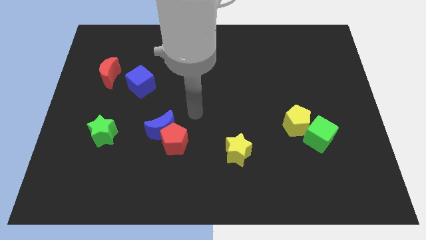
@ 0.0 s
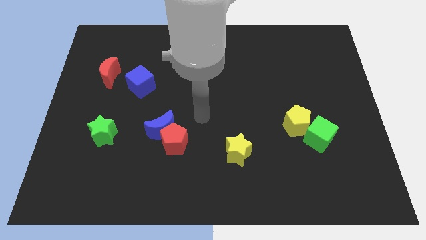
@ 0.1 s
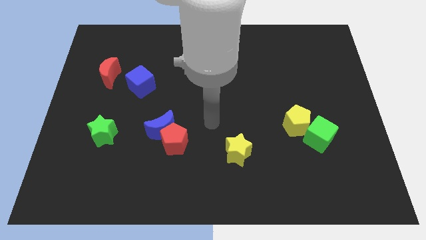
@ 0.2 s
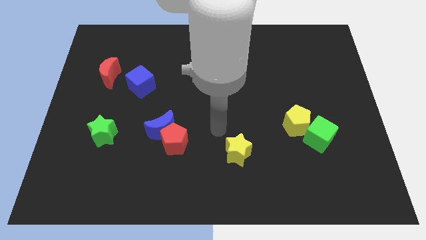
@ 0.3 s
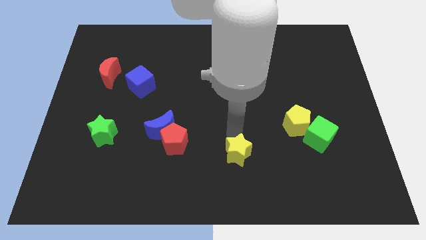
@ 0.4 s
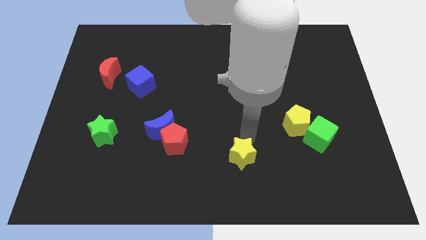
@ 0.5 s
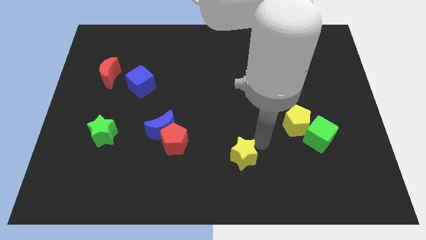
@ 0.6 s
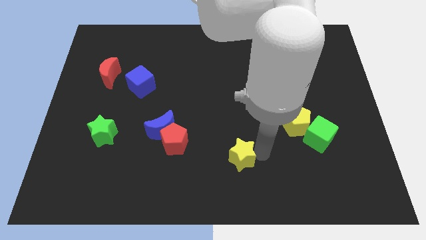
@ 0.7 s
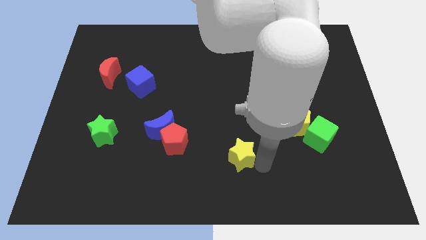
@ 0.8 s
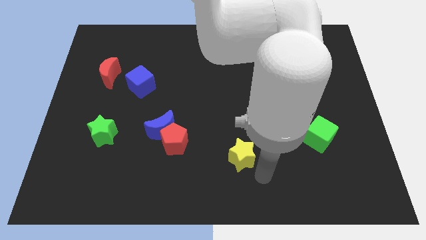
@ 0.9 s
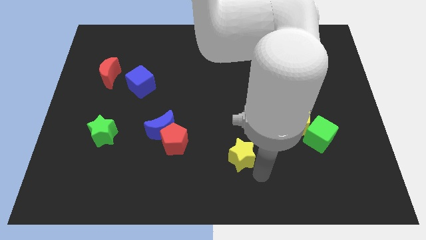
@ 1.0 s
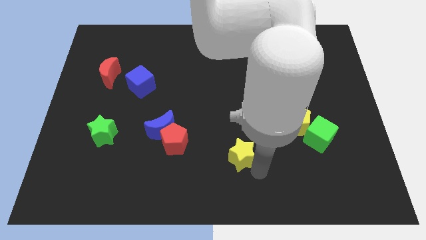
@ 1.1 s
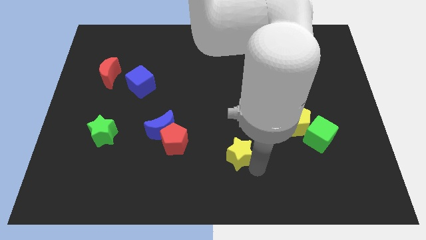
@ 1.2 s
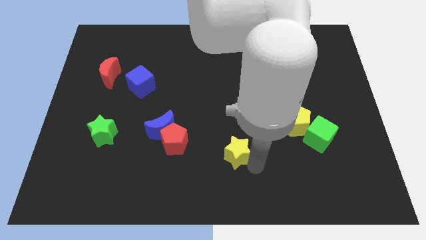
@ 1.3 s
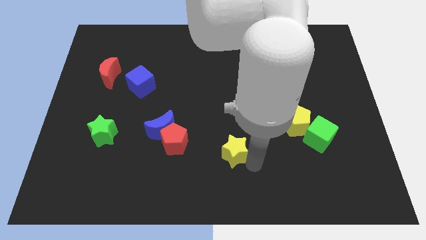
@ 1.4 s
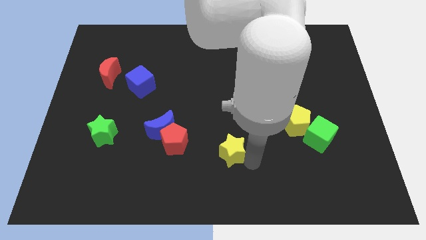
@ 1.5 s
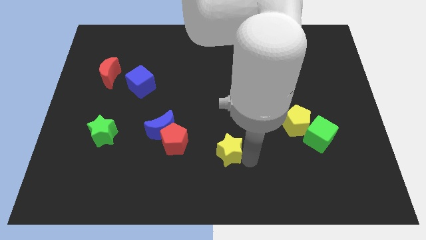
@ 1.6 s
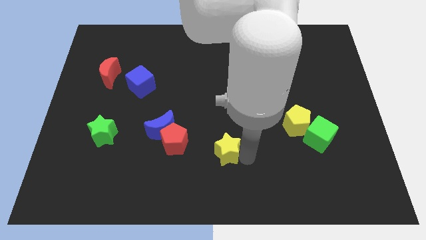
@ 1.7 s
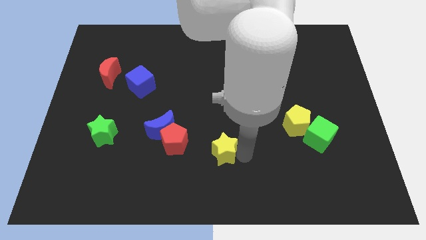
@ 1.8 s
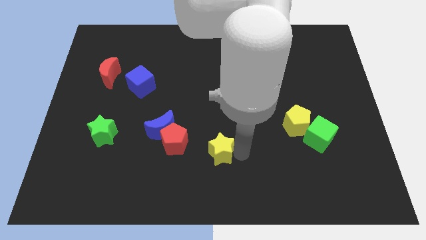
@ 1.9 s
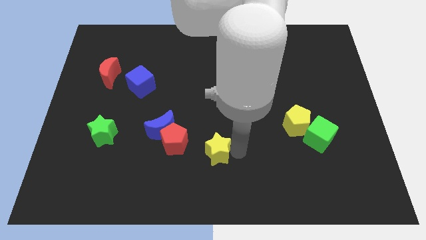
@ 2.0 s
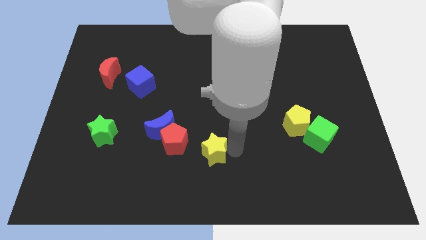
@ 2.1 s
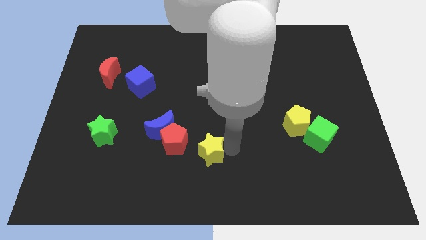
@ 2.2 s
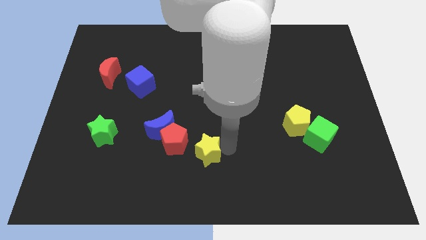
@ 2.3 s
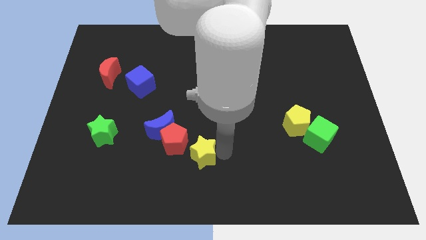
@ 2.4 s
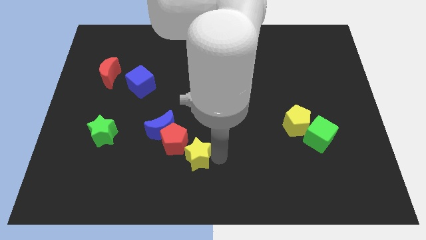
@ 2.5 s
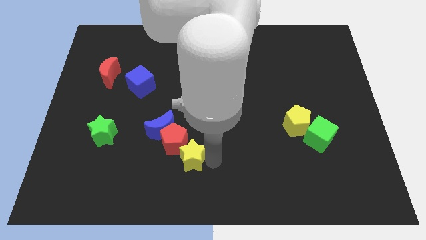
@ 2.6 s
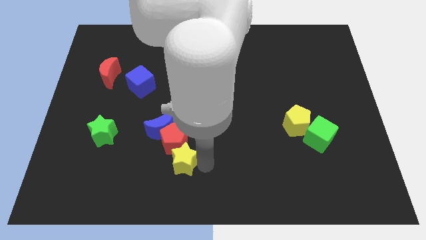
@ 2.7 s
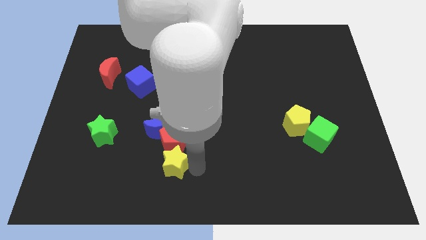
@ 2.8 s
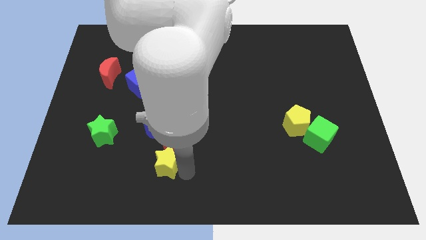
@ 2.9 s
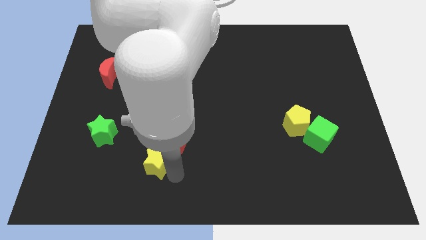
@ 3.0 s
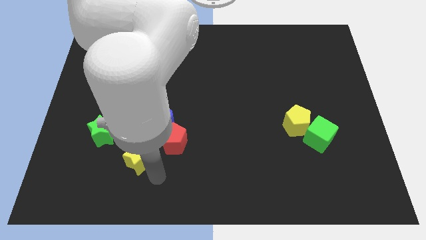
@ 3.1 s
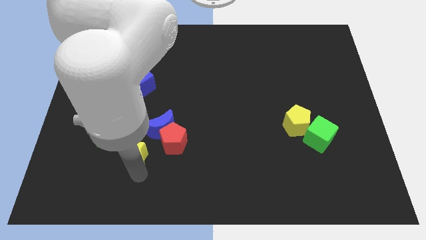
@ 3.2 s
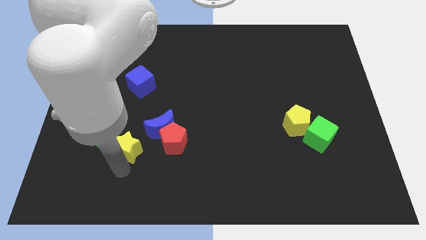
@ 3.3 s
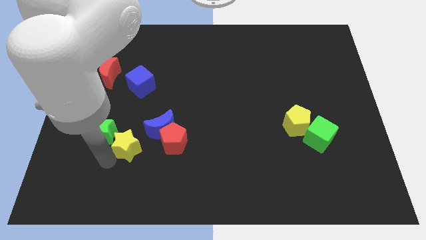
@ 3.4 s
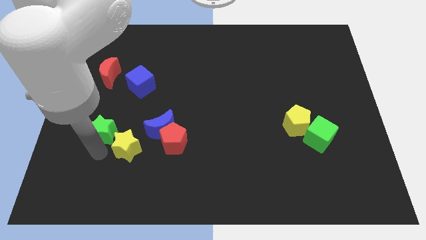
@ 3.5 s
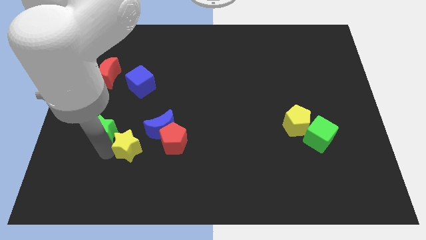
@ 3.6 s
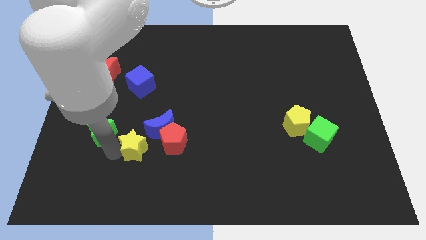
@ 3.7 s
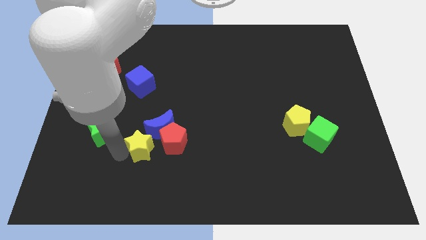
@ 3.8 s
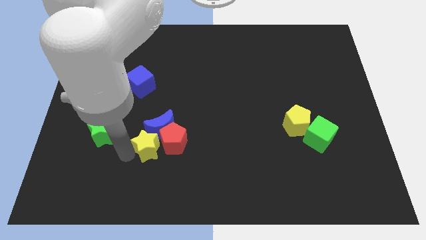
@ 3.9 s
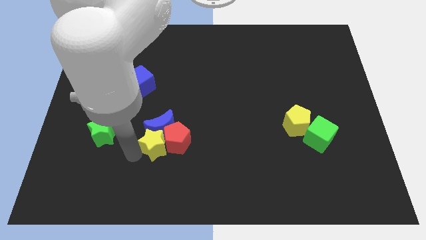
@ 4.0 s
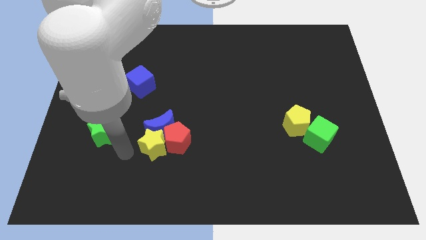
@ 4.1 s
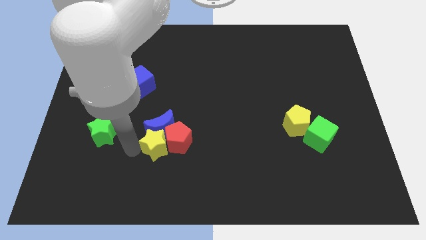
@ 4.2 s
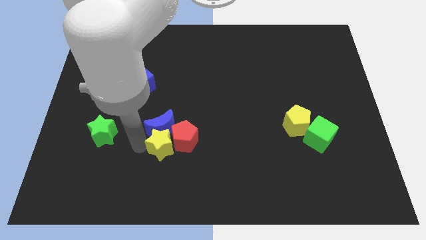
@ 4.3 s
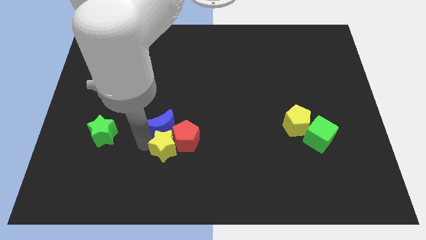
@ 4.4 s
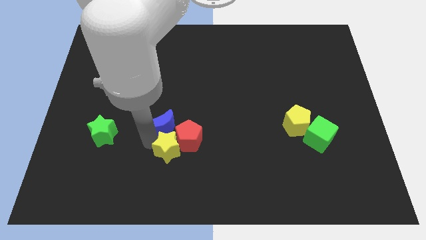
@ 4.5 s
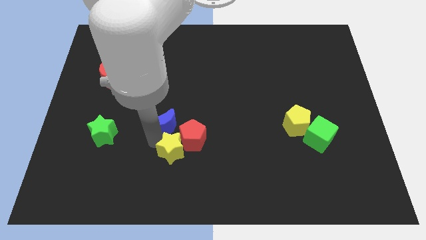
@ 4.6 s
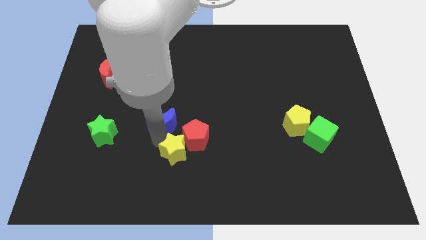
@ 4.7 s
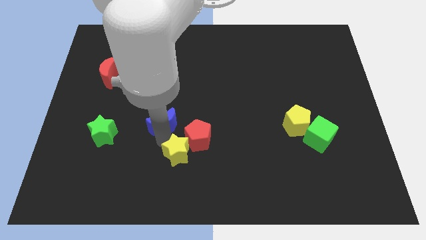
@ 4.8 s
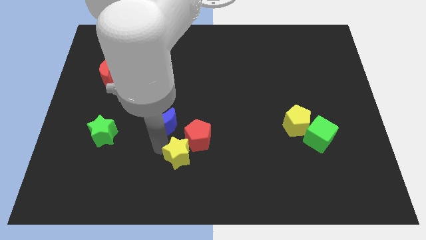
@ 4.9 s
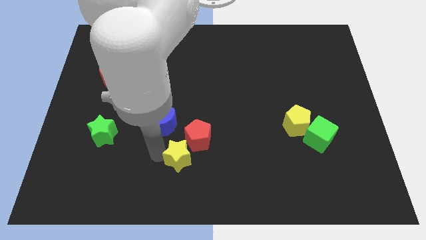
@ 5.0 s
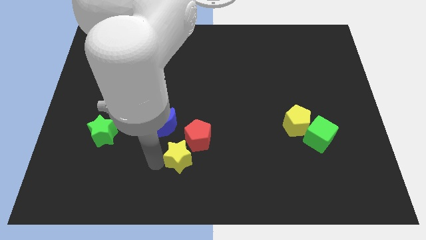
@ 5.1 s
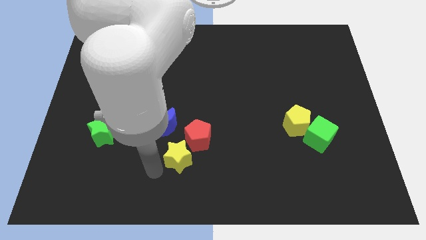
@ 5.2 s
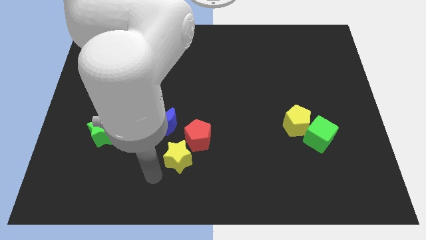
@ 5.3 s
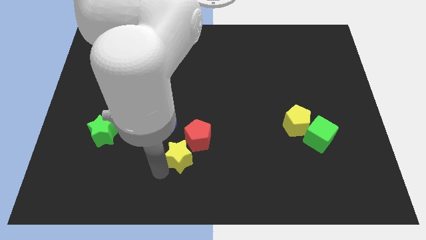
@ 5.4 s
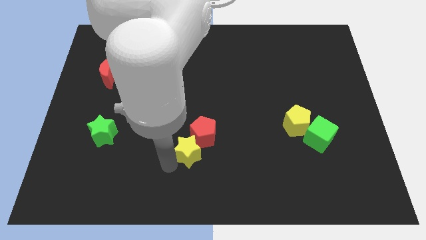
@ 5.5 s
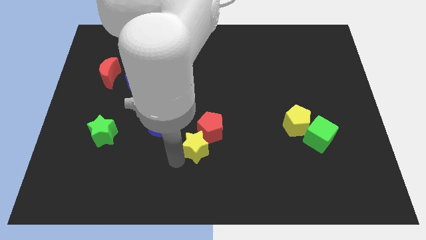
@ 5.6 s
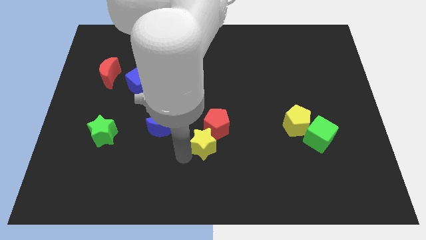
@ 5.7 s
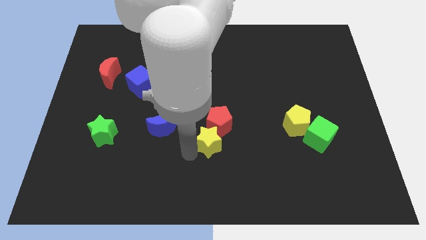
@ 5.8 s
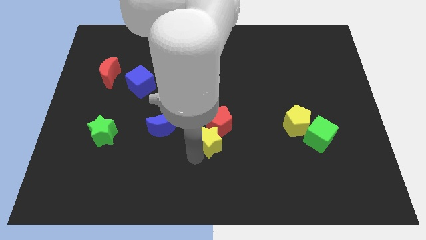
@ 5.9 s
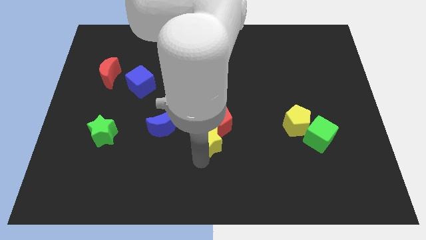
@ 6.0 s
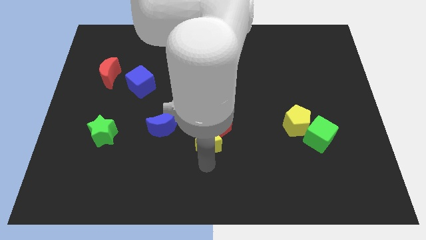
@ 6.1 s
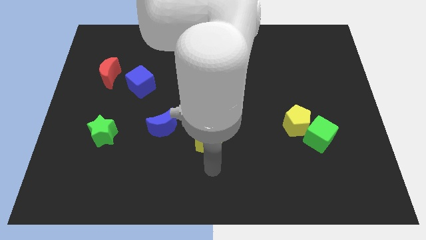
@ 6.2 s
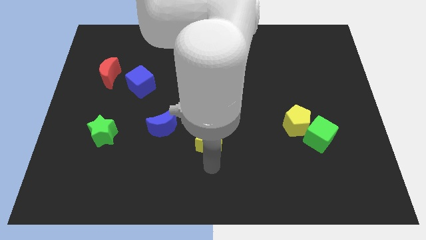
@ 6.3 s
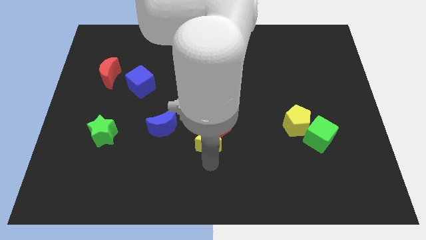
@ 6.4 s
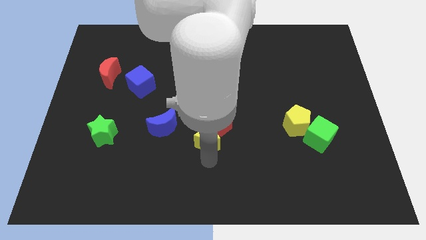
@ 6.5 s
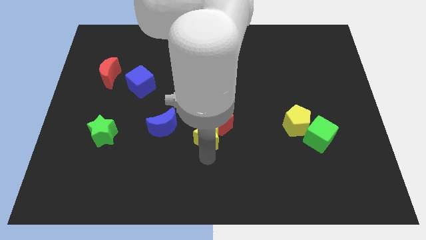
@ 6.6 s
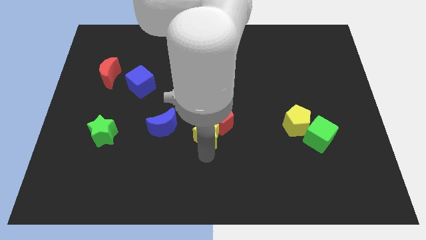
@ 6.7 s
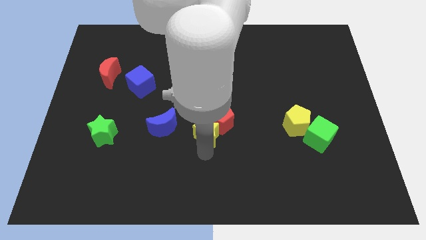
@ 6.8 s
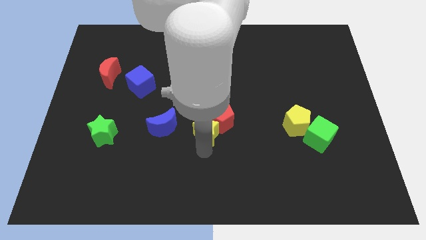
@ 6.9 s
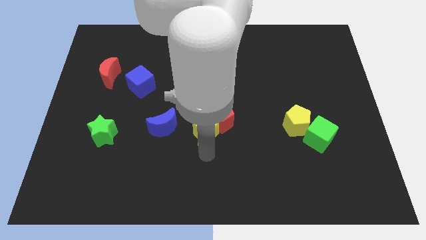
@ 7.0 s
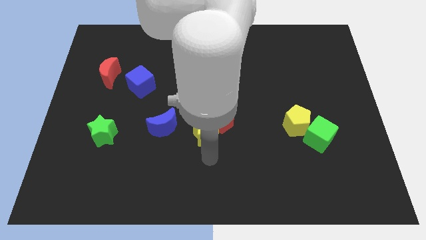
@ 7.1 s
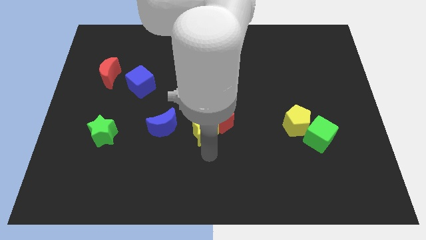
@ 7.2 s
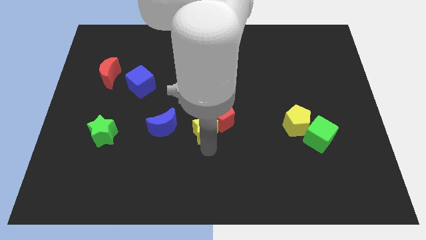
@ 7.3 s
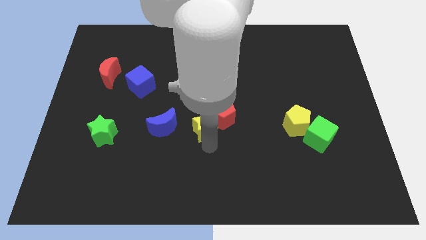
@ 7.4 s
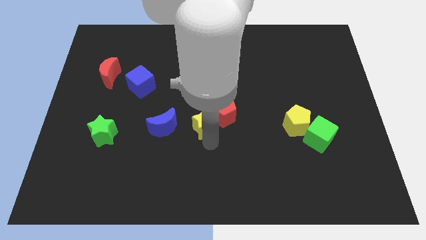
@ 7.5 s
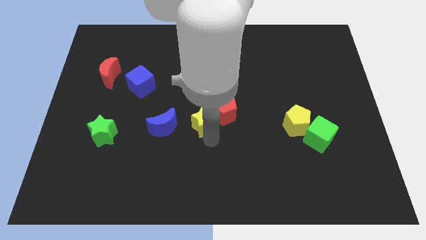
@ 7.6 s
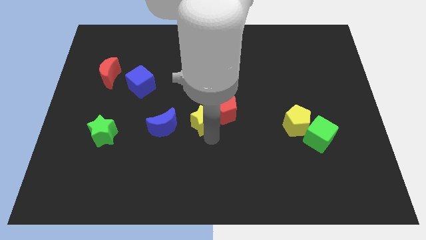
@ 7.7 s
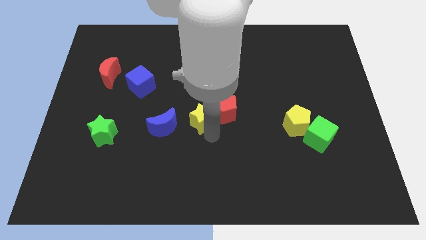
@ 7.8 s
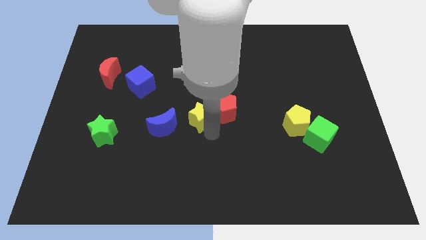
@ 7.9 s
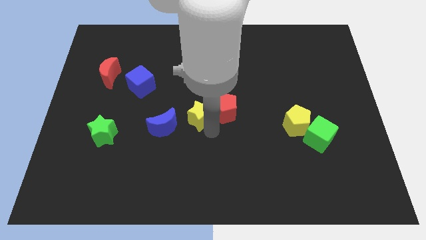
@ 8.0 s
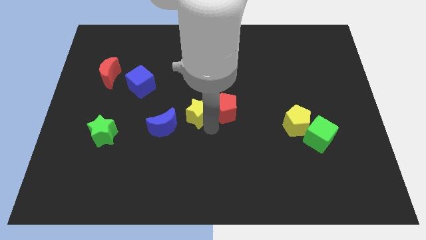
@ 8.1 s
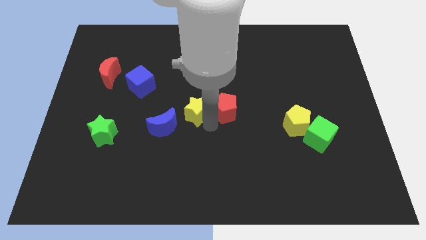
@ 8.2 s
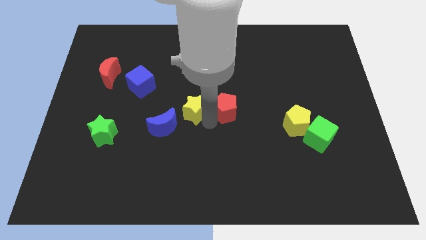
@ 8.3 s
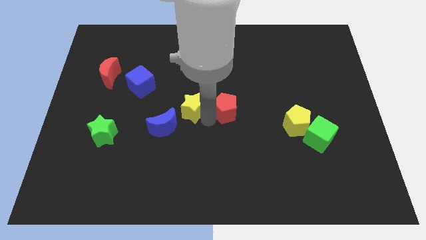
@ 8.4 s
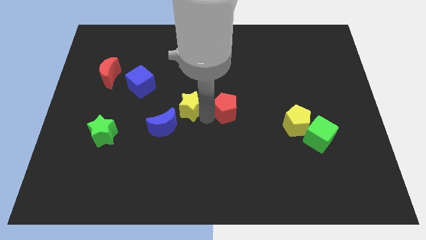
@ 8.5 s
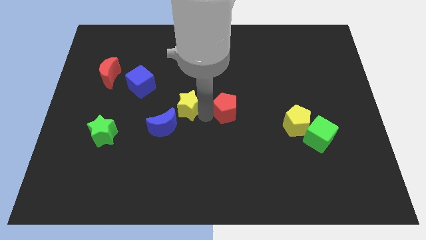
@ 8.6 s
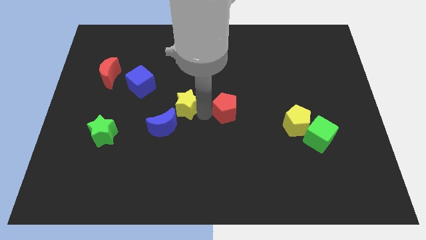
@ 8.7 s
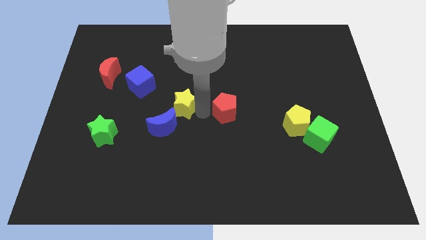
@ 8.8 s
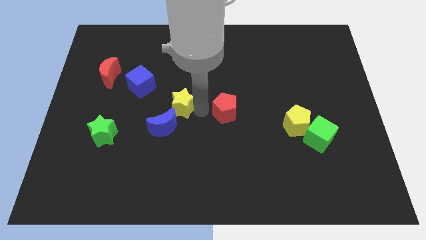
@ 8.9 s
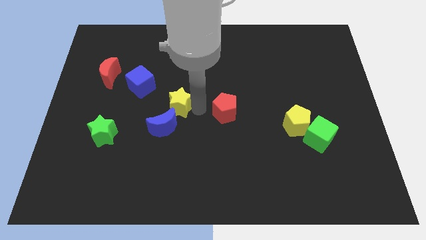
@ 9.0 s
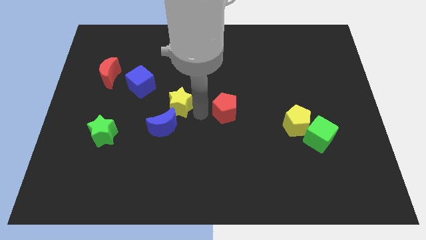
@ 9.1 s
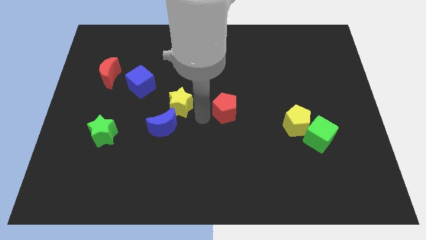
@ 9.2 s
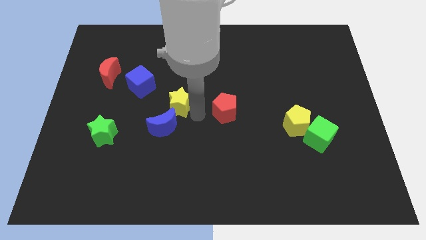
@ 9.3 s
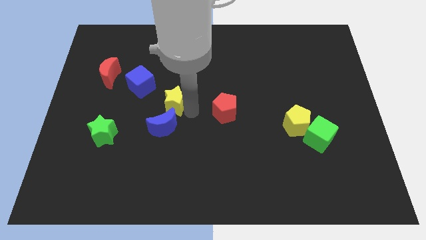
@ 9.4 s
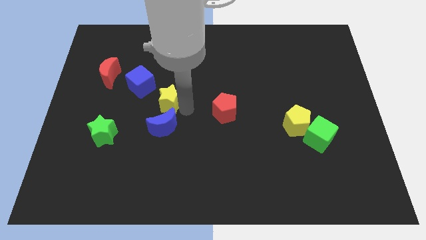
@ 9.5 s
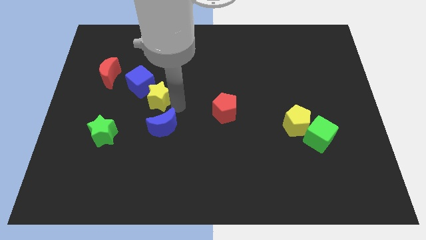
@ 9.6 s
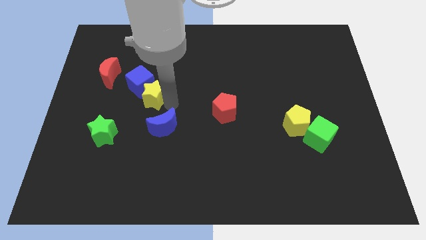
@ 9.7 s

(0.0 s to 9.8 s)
push the yellow star towards the blue cube
